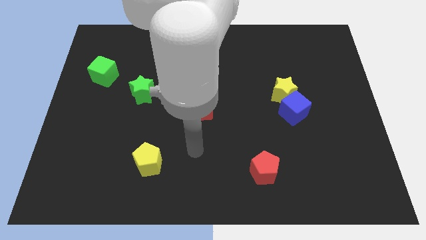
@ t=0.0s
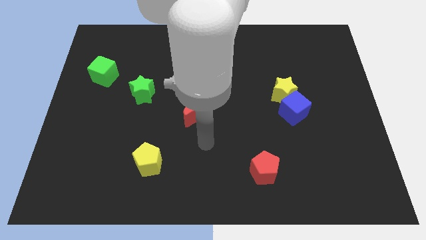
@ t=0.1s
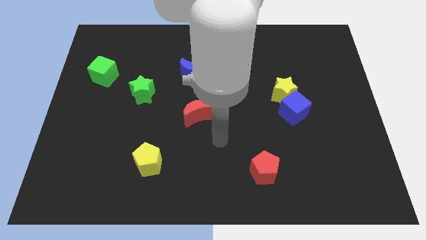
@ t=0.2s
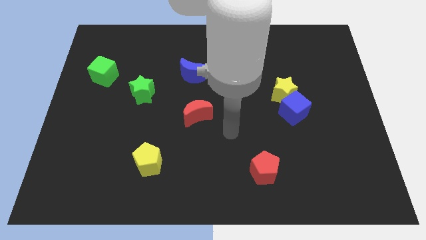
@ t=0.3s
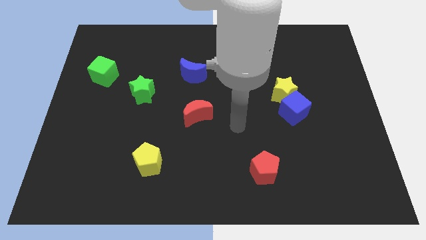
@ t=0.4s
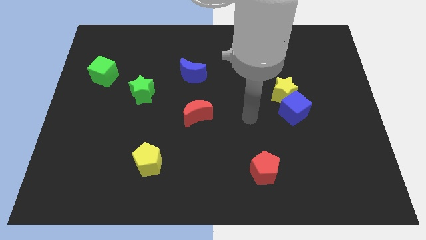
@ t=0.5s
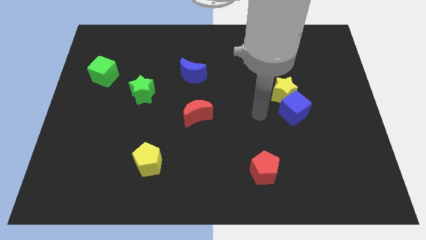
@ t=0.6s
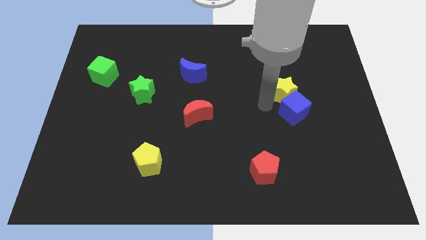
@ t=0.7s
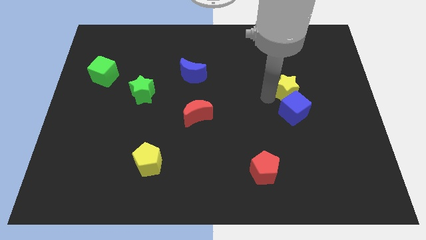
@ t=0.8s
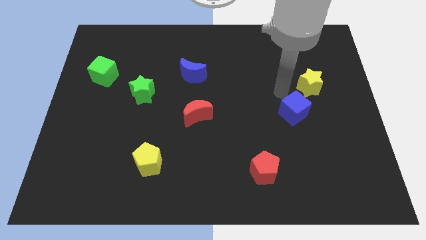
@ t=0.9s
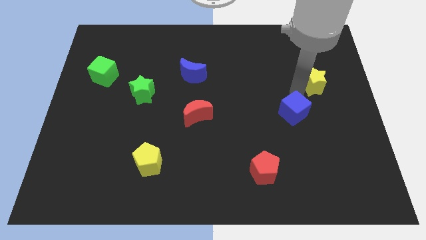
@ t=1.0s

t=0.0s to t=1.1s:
separate the blue cube from the yellow star

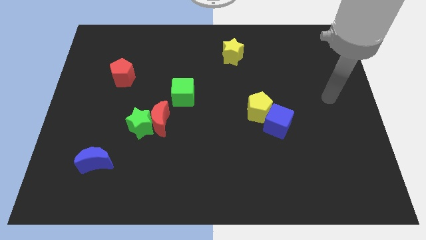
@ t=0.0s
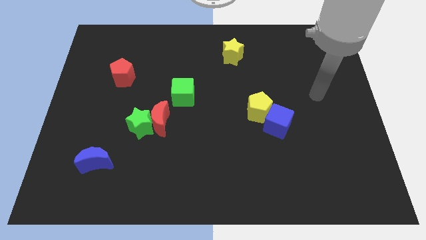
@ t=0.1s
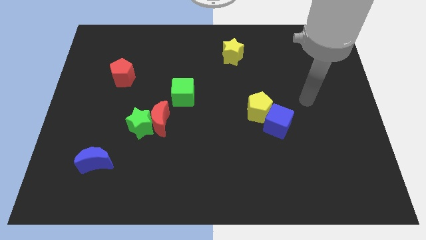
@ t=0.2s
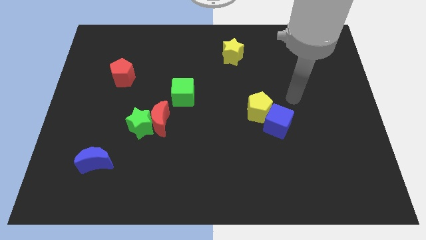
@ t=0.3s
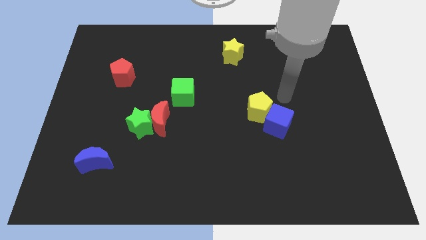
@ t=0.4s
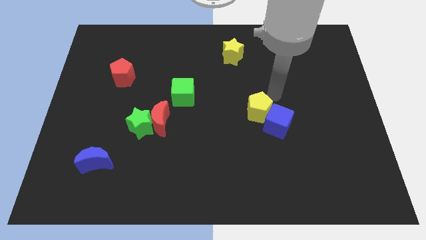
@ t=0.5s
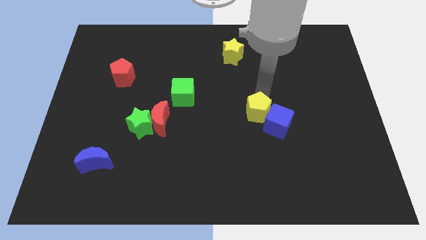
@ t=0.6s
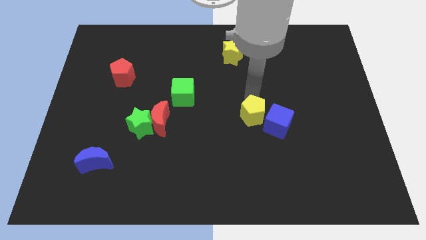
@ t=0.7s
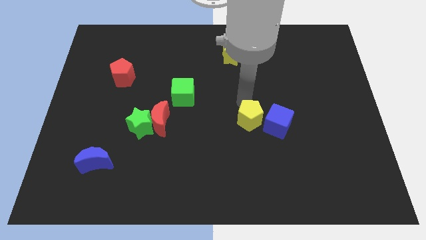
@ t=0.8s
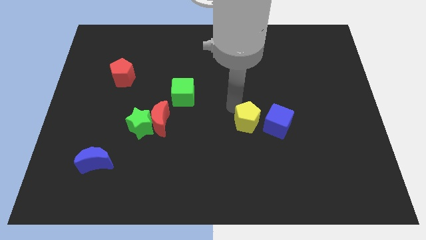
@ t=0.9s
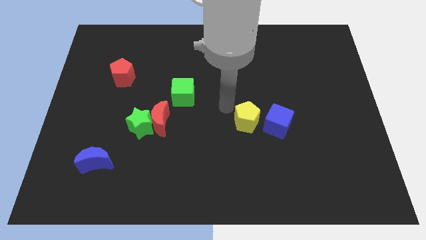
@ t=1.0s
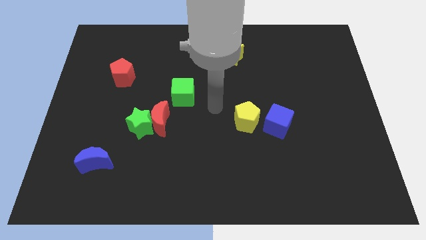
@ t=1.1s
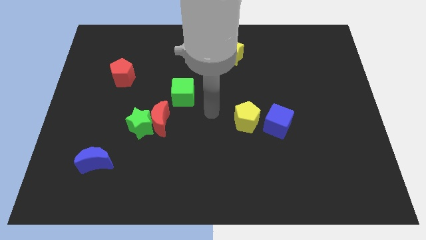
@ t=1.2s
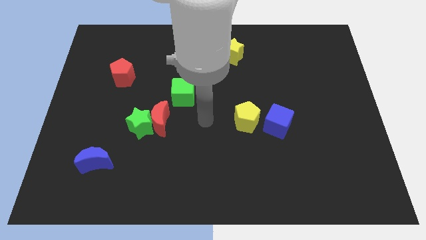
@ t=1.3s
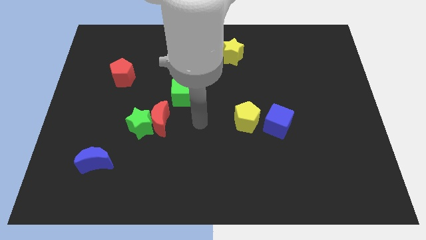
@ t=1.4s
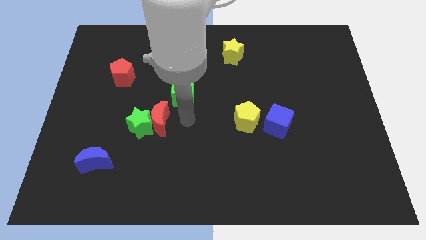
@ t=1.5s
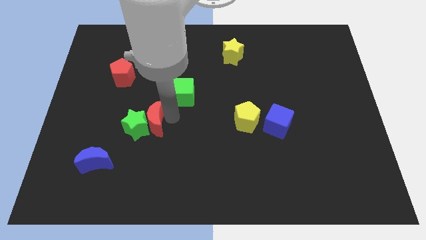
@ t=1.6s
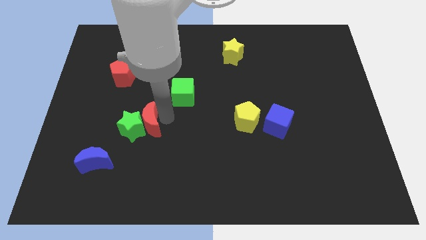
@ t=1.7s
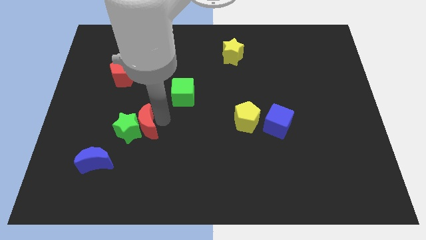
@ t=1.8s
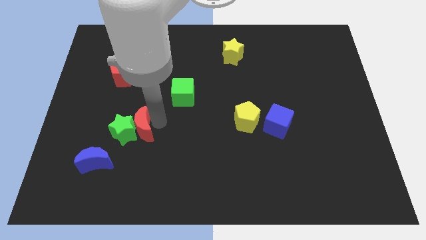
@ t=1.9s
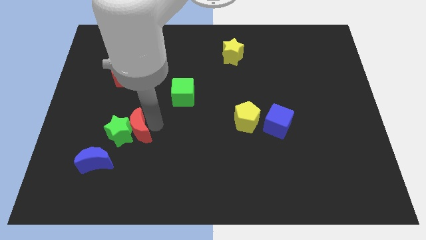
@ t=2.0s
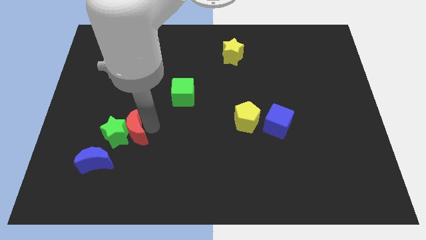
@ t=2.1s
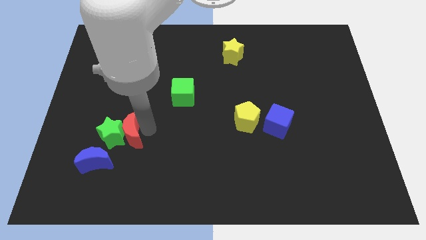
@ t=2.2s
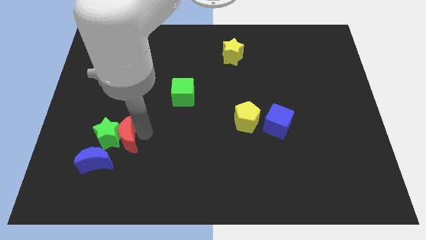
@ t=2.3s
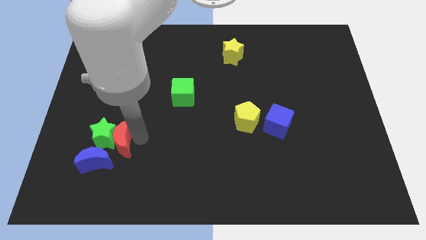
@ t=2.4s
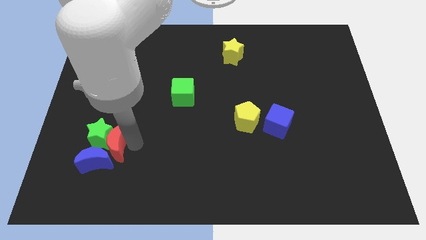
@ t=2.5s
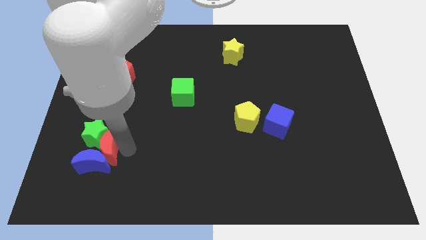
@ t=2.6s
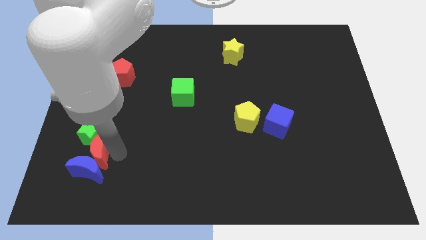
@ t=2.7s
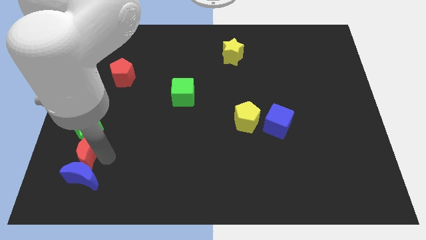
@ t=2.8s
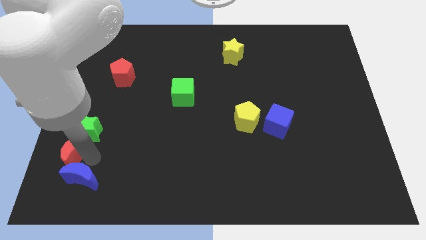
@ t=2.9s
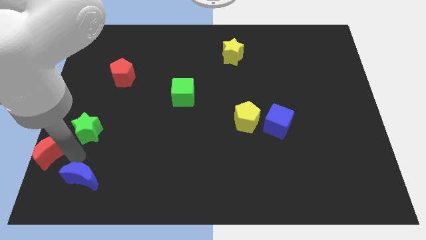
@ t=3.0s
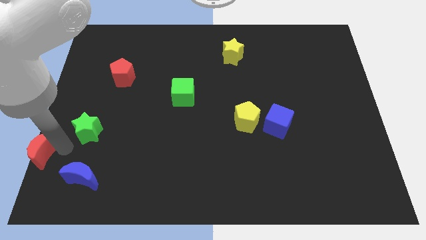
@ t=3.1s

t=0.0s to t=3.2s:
pull the green star apart from the red moon

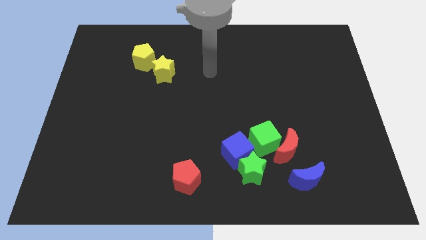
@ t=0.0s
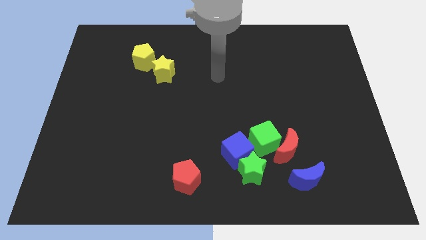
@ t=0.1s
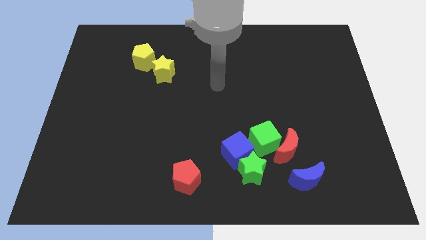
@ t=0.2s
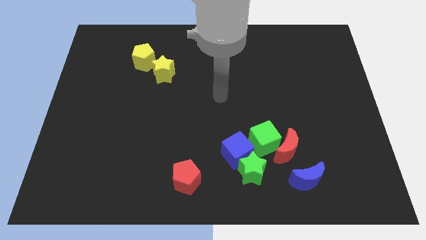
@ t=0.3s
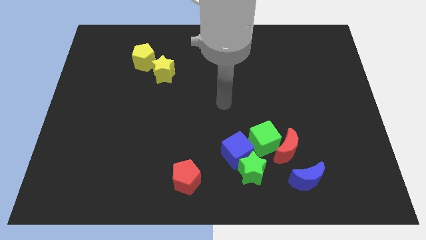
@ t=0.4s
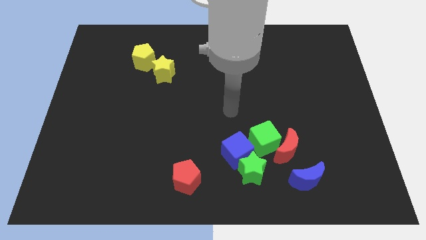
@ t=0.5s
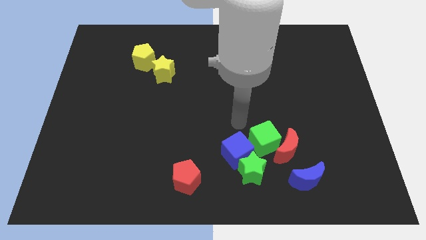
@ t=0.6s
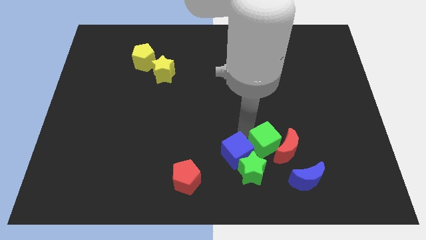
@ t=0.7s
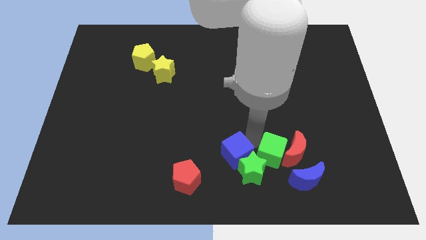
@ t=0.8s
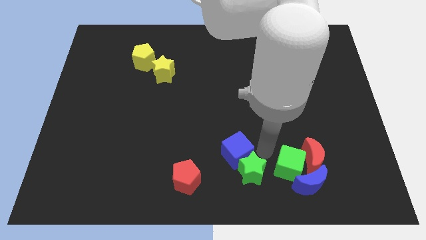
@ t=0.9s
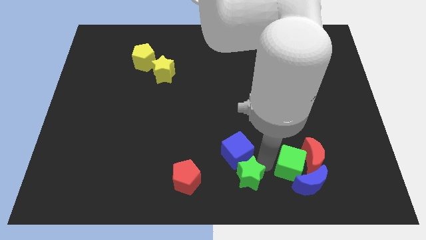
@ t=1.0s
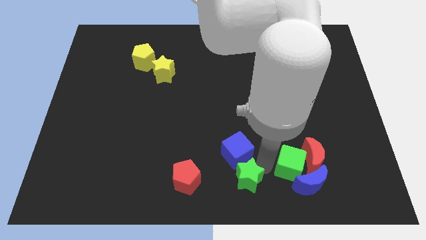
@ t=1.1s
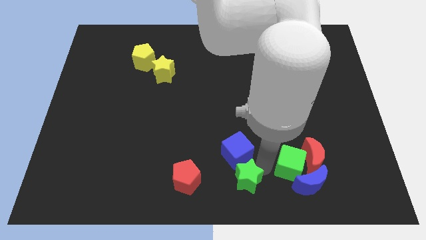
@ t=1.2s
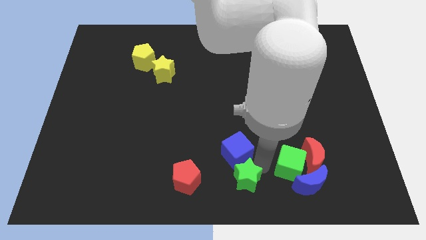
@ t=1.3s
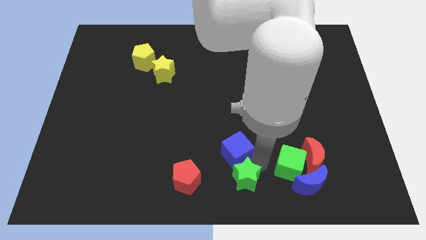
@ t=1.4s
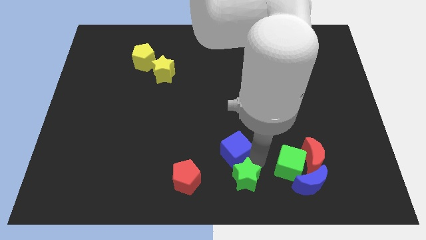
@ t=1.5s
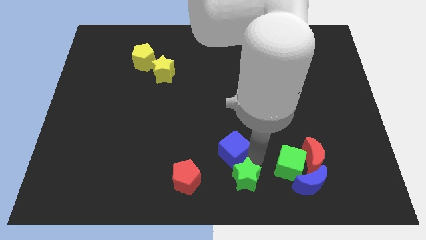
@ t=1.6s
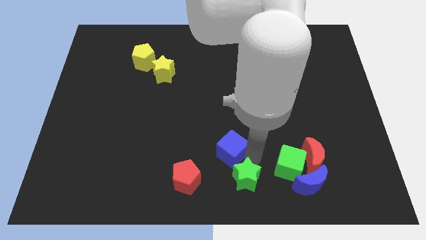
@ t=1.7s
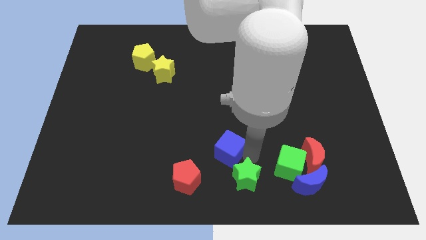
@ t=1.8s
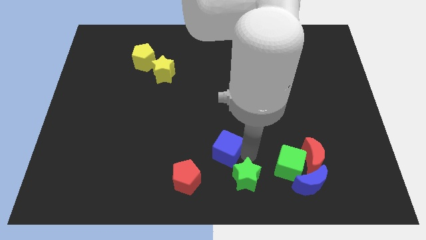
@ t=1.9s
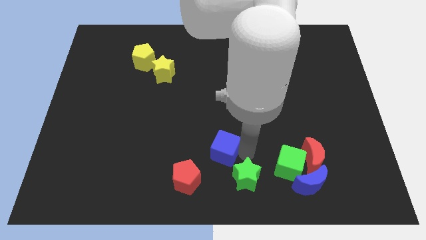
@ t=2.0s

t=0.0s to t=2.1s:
separate the blue cube from the green star and green cube

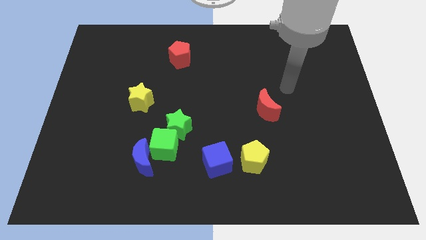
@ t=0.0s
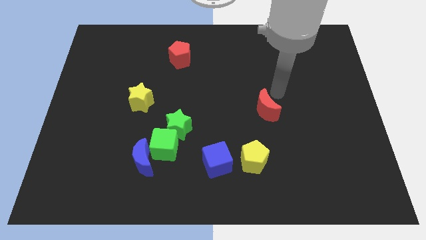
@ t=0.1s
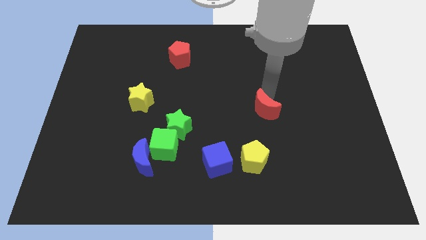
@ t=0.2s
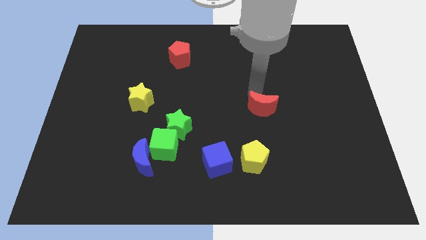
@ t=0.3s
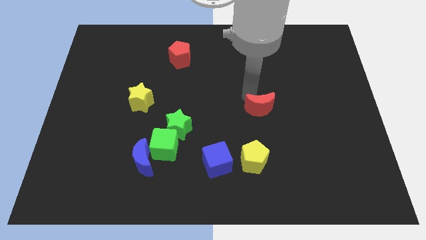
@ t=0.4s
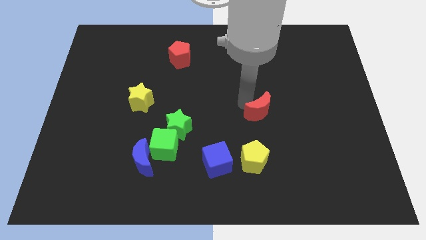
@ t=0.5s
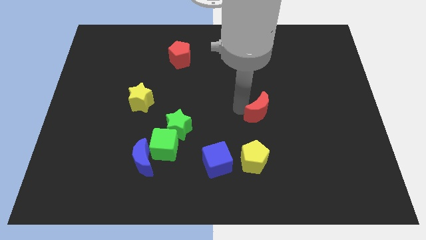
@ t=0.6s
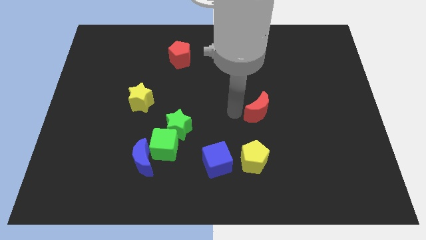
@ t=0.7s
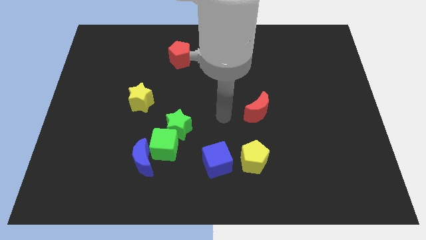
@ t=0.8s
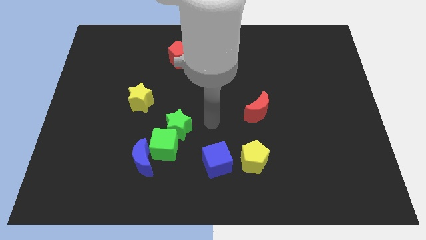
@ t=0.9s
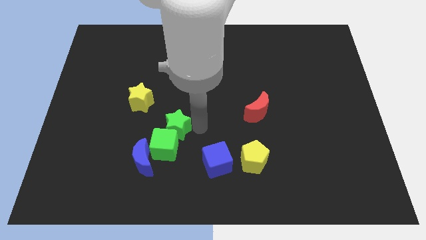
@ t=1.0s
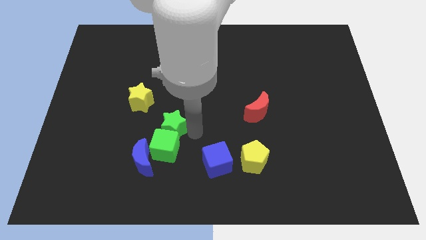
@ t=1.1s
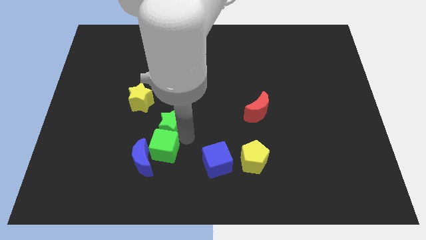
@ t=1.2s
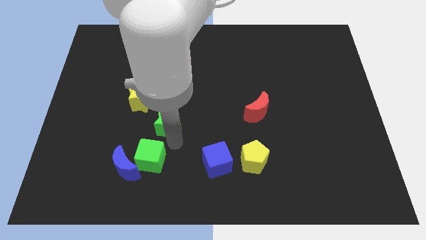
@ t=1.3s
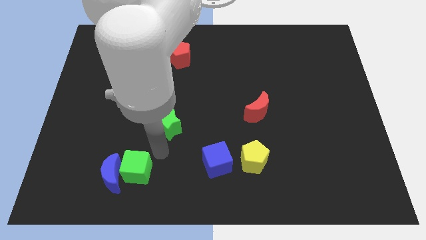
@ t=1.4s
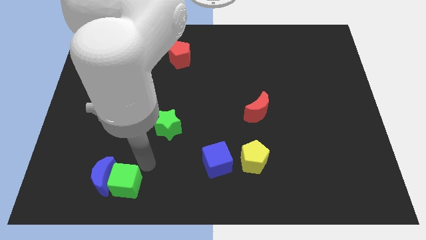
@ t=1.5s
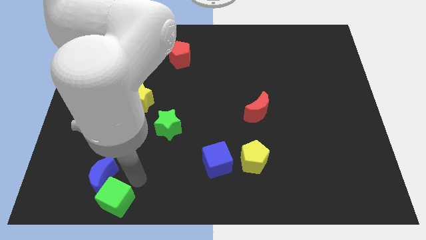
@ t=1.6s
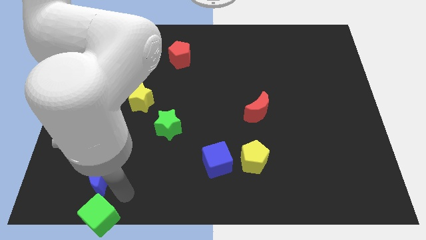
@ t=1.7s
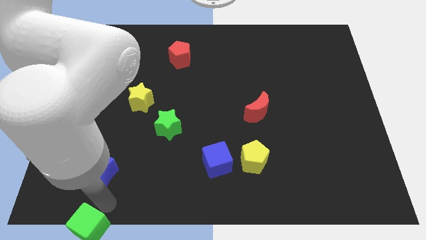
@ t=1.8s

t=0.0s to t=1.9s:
pull the blue moon apart from the green cube

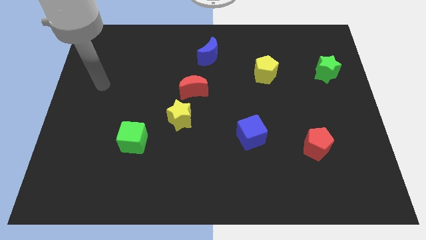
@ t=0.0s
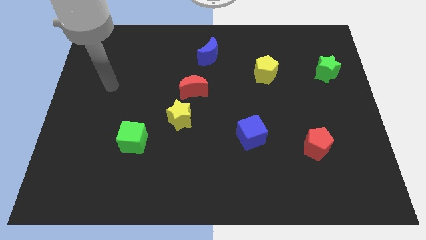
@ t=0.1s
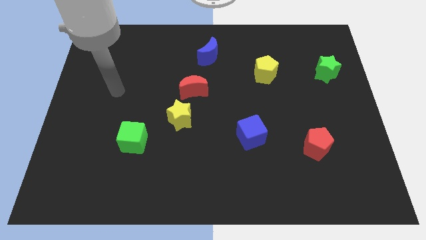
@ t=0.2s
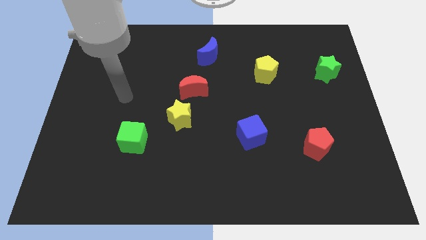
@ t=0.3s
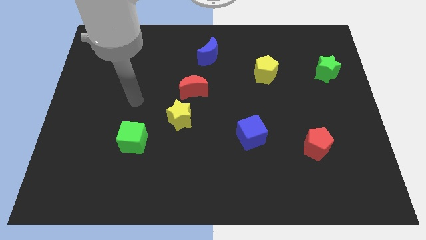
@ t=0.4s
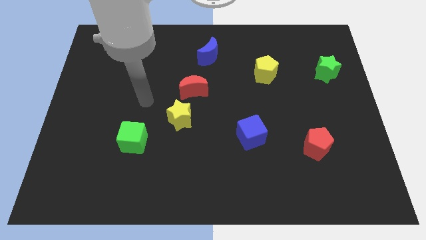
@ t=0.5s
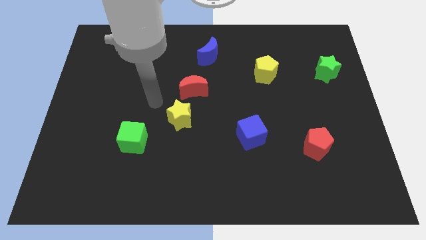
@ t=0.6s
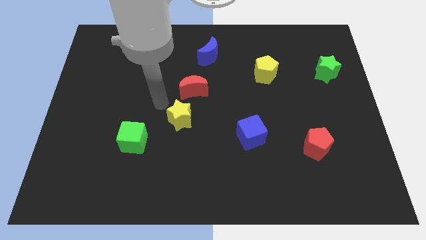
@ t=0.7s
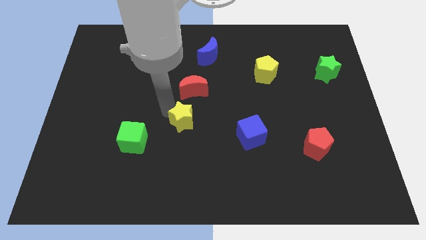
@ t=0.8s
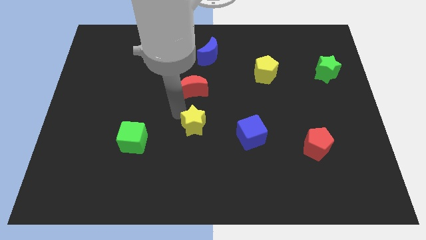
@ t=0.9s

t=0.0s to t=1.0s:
separate the red moon from the yellow star
